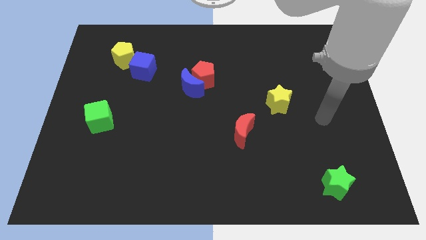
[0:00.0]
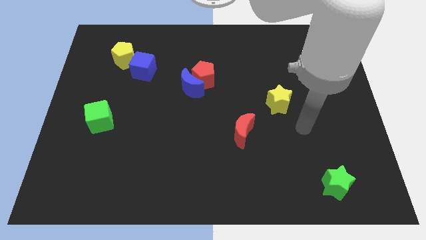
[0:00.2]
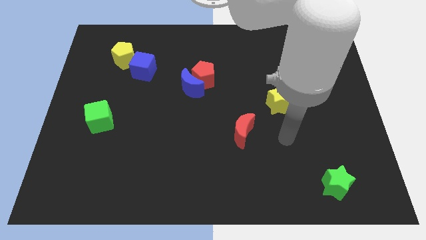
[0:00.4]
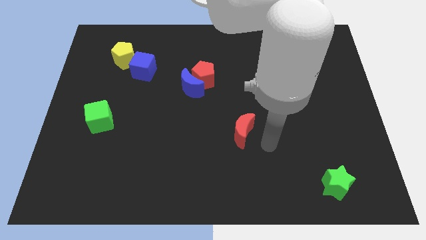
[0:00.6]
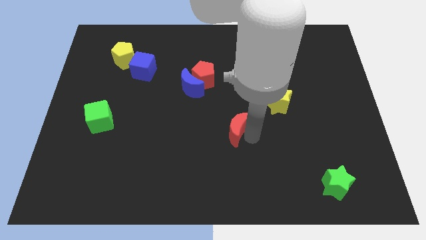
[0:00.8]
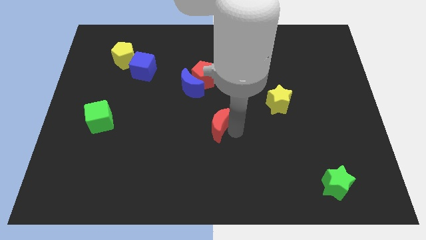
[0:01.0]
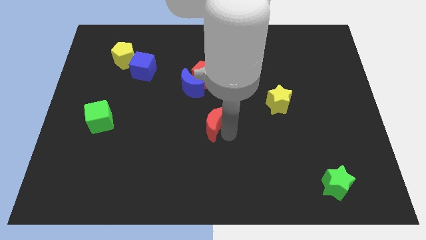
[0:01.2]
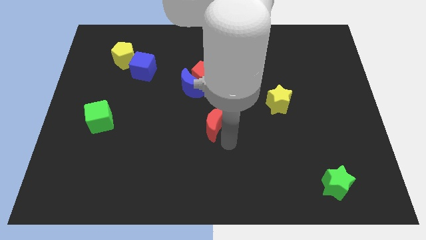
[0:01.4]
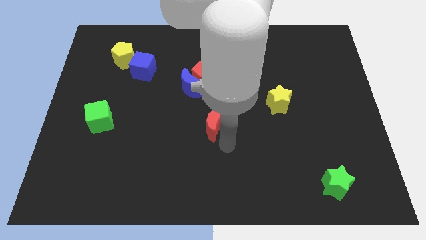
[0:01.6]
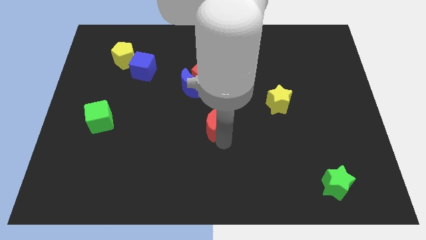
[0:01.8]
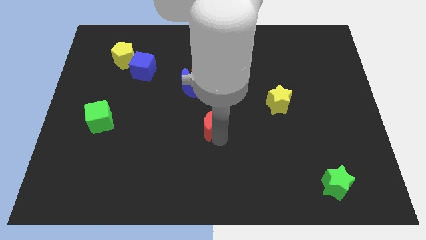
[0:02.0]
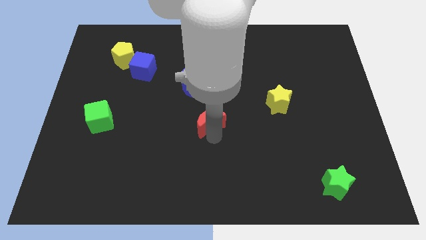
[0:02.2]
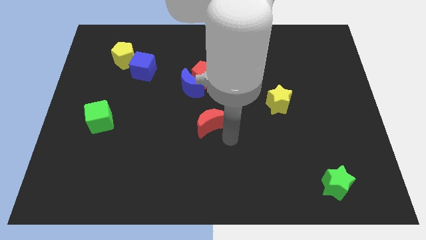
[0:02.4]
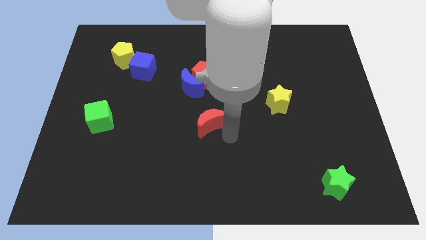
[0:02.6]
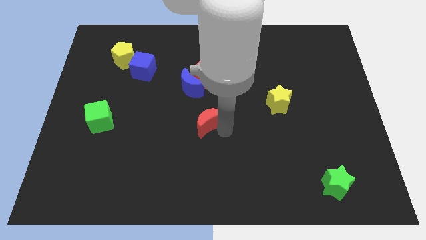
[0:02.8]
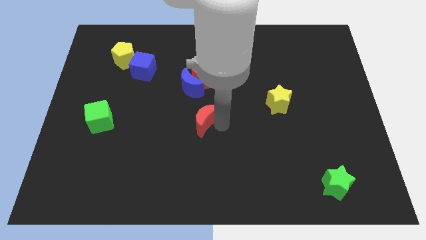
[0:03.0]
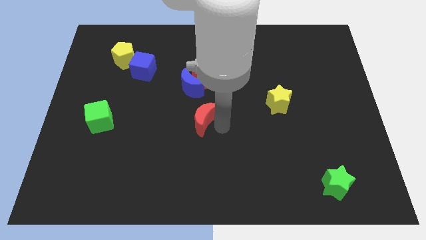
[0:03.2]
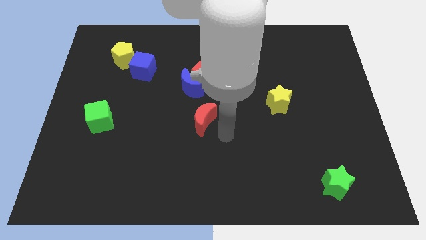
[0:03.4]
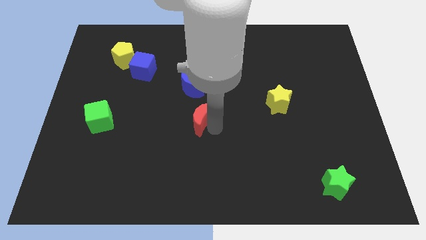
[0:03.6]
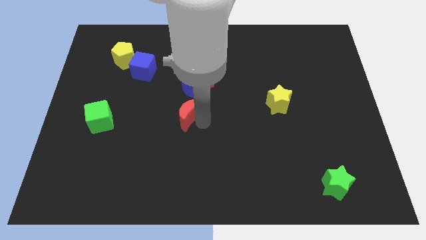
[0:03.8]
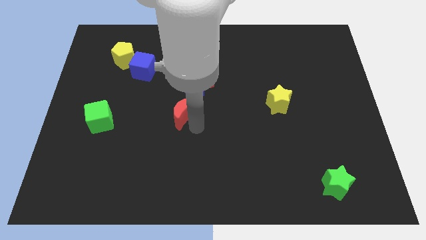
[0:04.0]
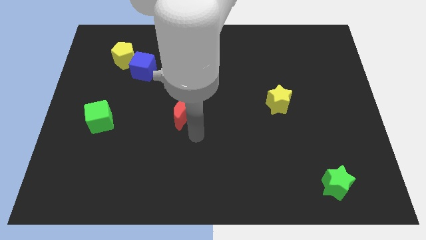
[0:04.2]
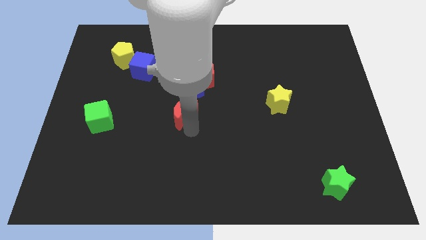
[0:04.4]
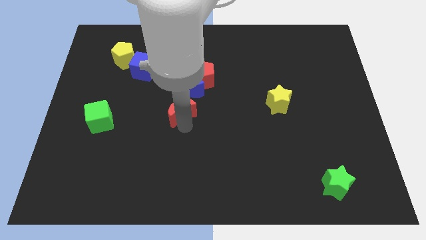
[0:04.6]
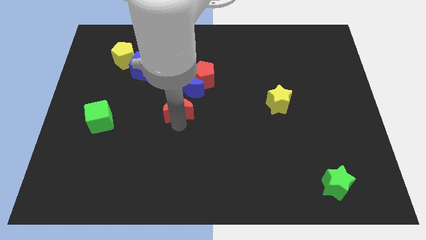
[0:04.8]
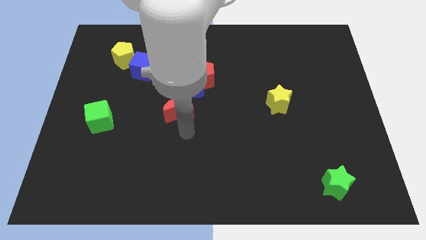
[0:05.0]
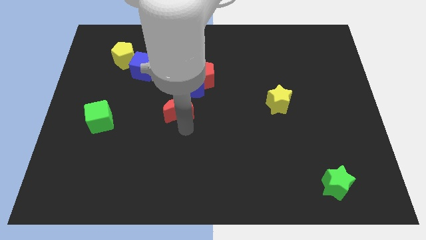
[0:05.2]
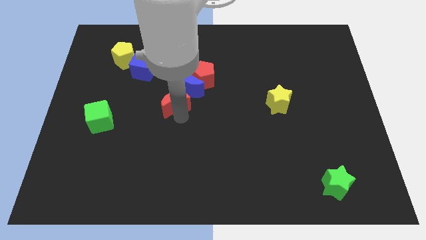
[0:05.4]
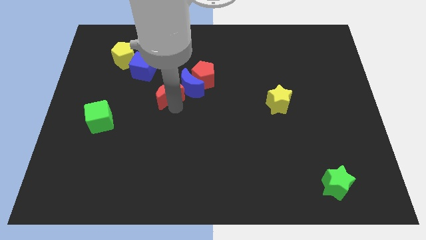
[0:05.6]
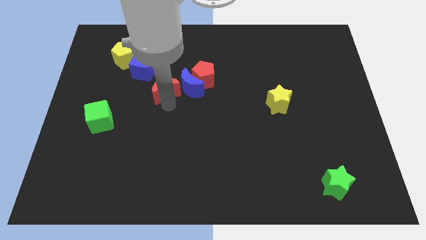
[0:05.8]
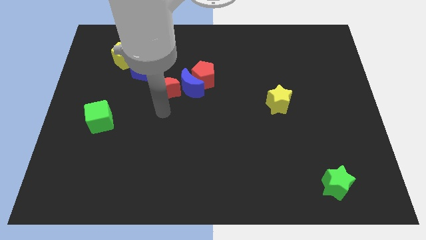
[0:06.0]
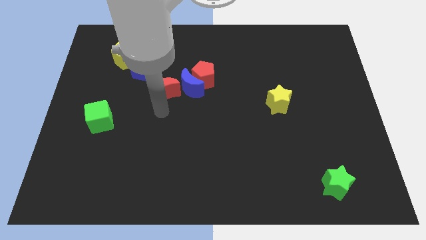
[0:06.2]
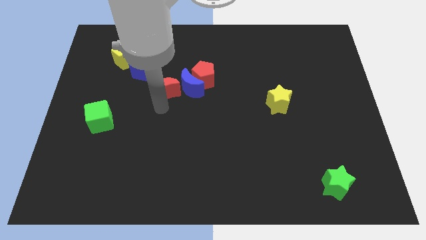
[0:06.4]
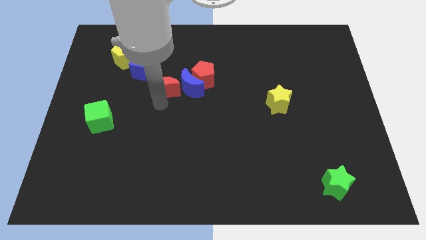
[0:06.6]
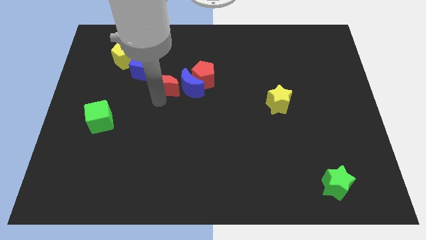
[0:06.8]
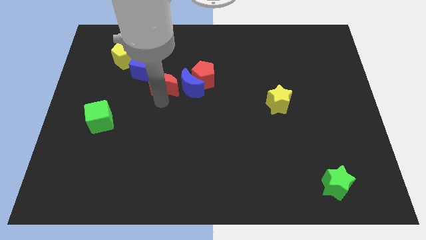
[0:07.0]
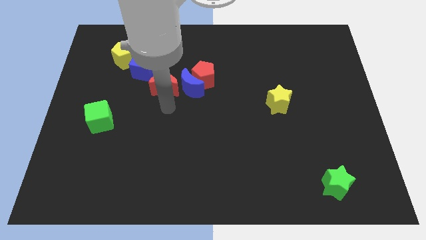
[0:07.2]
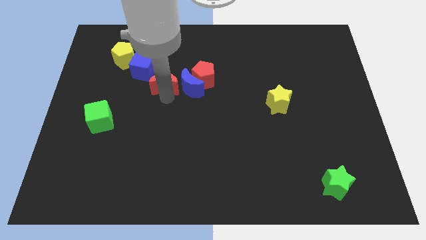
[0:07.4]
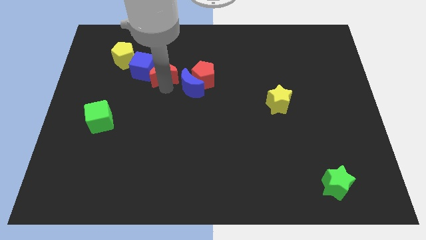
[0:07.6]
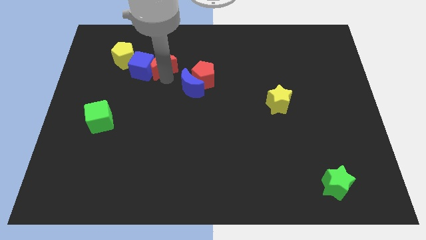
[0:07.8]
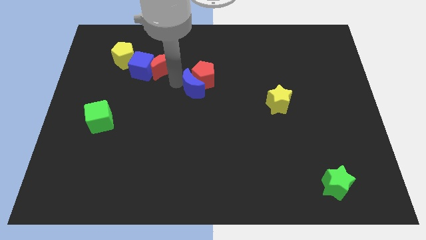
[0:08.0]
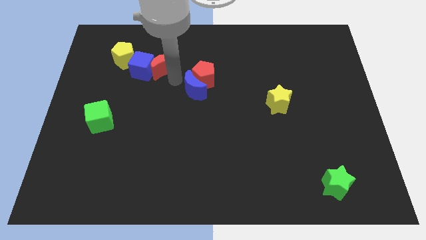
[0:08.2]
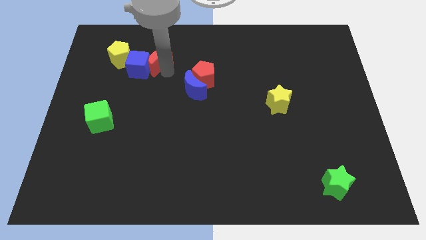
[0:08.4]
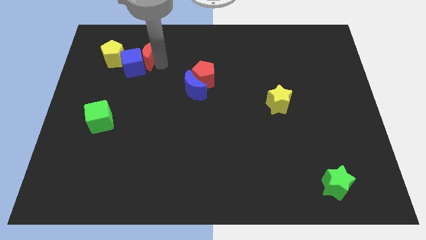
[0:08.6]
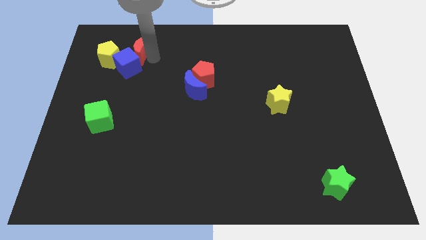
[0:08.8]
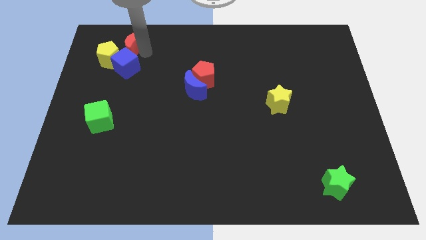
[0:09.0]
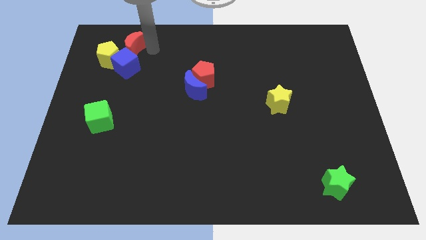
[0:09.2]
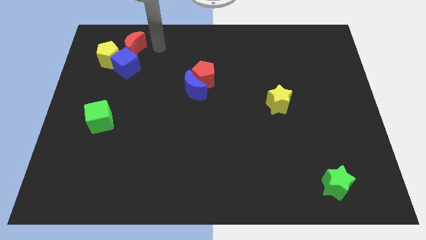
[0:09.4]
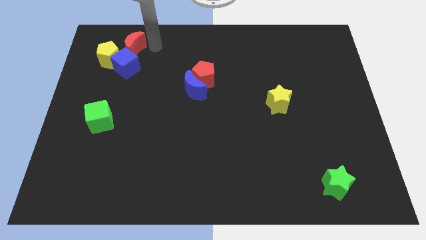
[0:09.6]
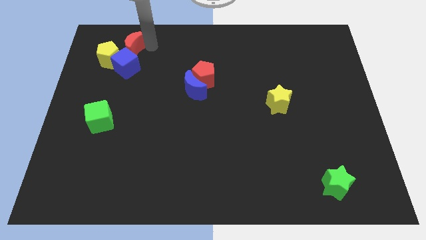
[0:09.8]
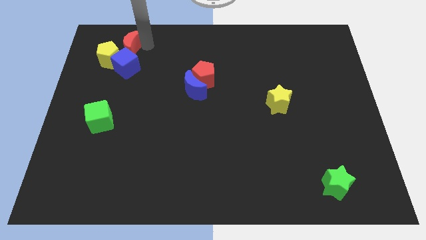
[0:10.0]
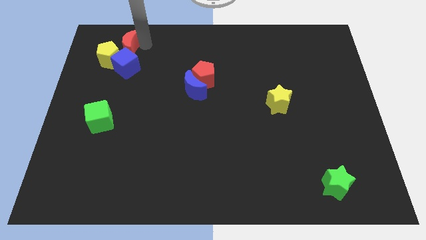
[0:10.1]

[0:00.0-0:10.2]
slide the red moon to the top left of the blue cube
